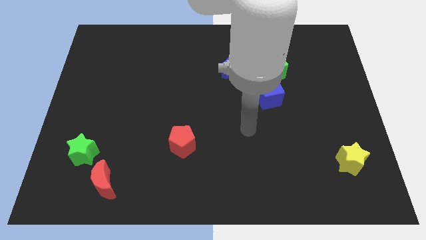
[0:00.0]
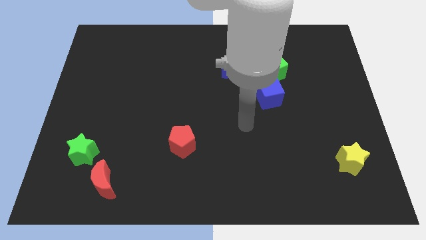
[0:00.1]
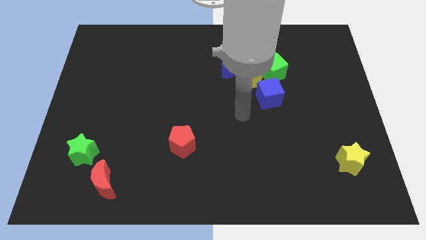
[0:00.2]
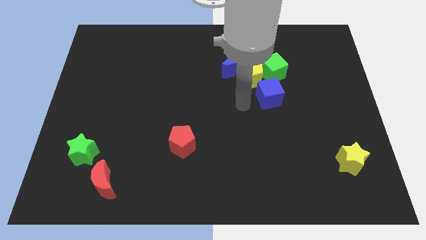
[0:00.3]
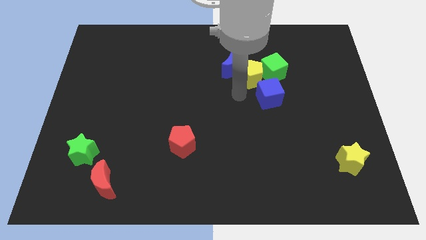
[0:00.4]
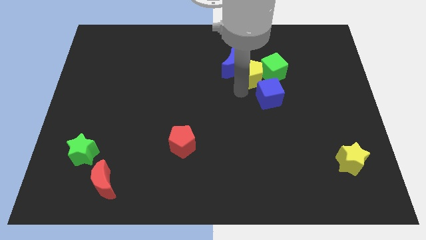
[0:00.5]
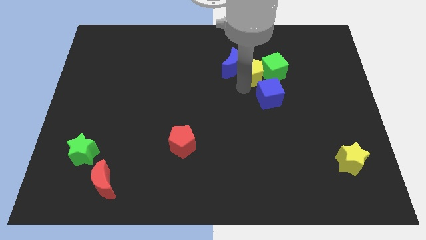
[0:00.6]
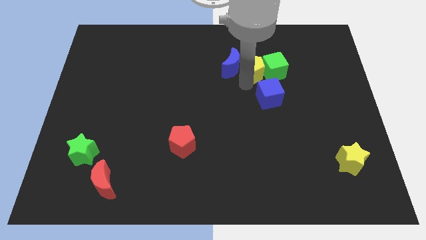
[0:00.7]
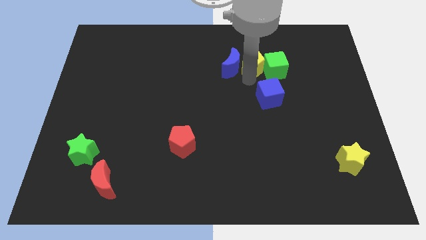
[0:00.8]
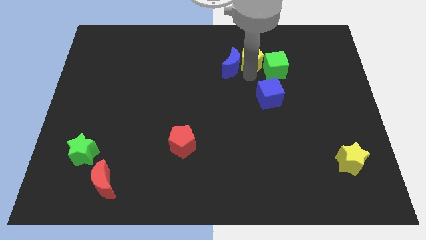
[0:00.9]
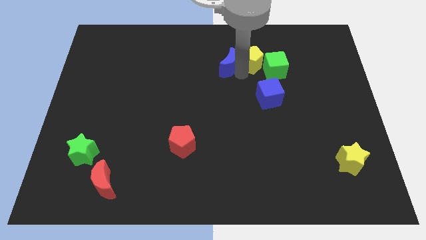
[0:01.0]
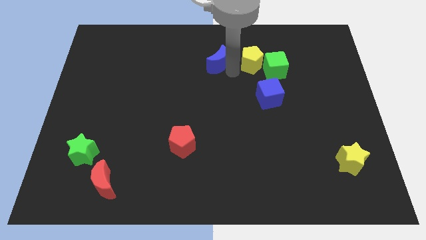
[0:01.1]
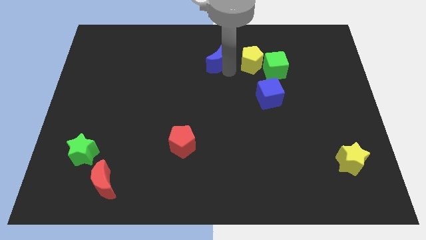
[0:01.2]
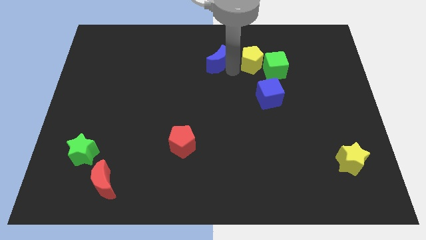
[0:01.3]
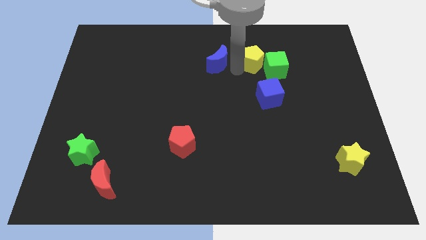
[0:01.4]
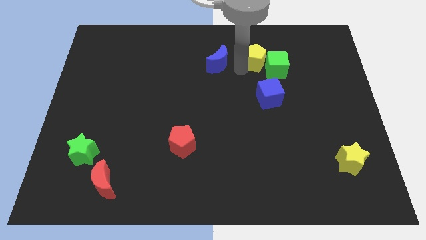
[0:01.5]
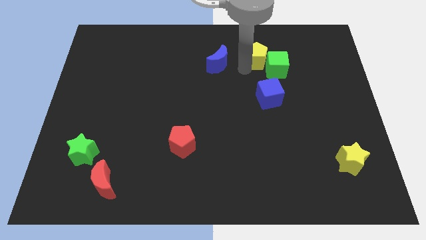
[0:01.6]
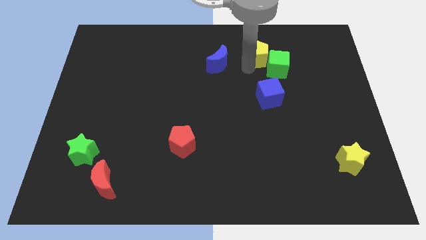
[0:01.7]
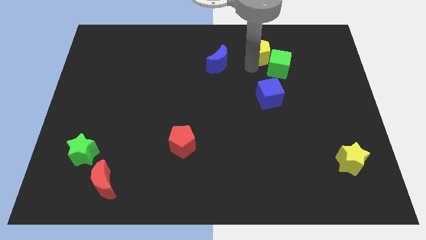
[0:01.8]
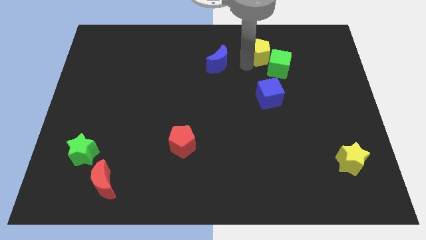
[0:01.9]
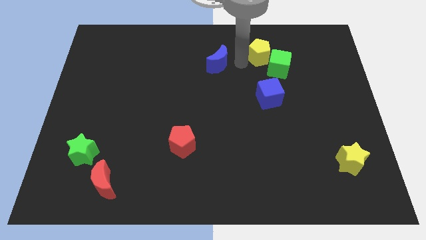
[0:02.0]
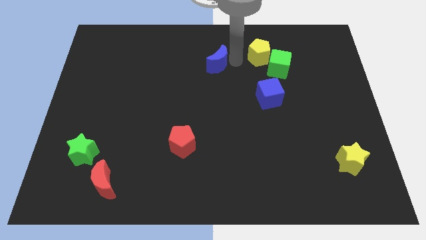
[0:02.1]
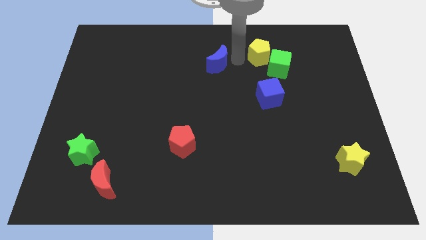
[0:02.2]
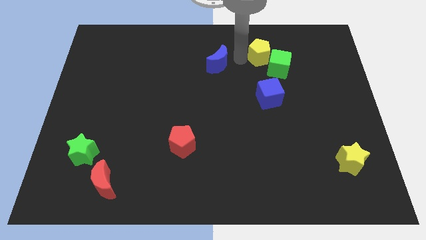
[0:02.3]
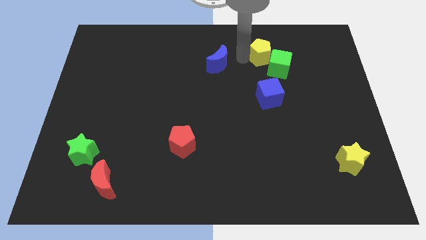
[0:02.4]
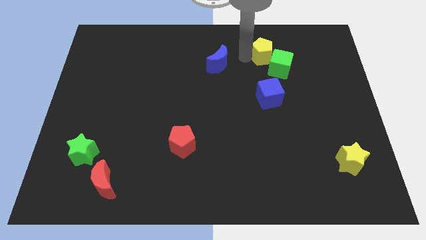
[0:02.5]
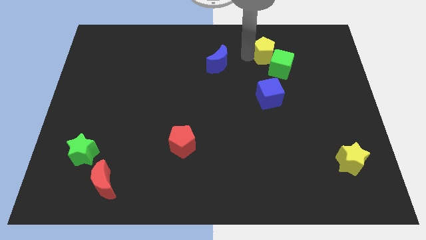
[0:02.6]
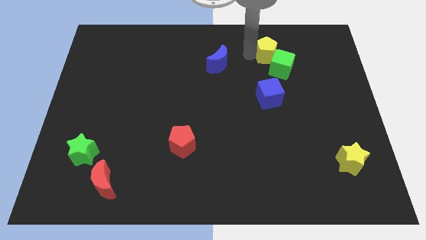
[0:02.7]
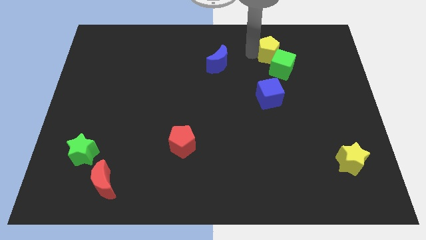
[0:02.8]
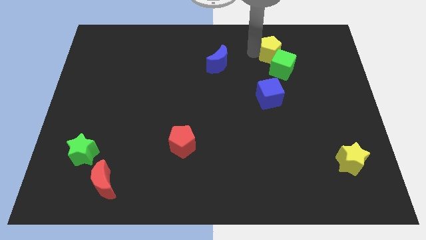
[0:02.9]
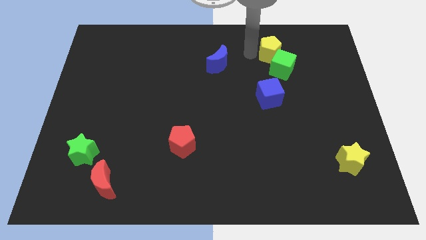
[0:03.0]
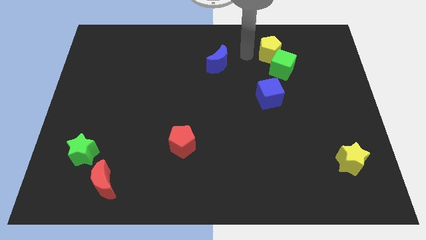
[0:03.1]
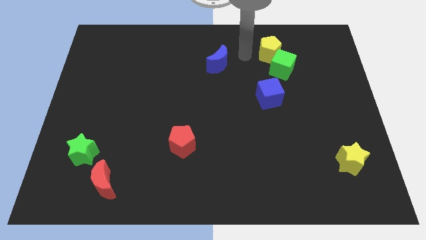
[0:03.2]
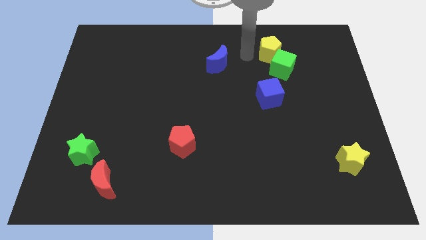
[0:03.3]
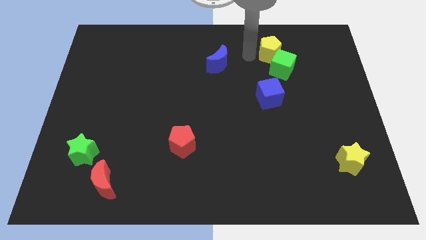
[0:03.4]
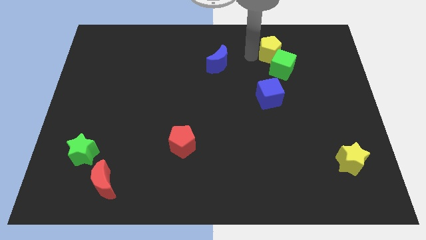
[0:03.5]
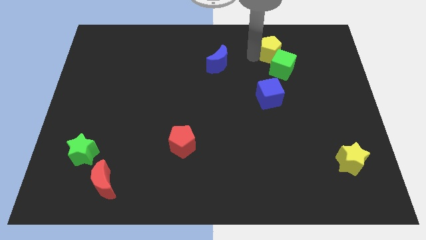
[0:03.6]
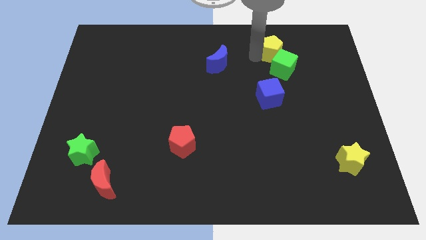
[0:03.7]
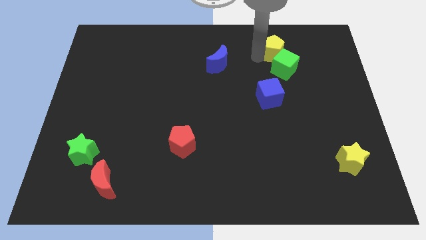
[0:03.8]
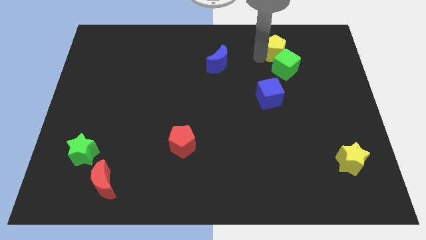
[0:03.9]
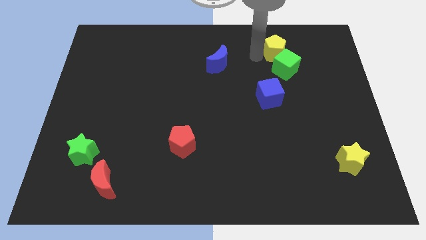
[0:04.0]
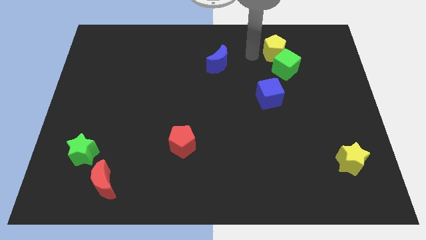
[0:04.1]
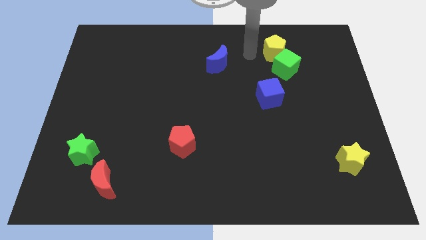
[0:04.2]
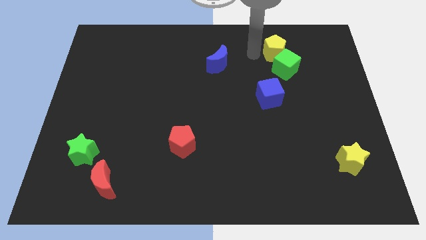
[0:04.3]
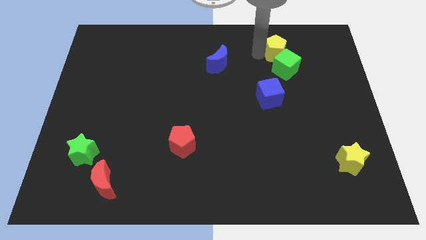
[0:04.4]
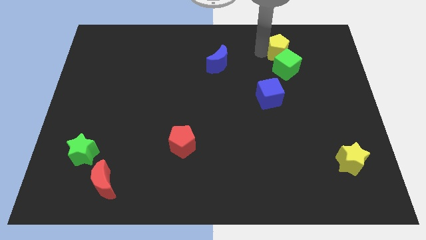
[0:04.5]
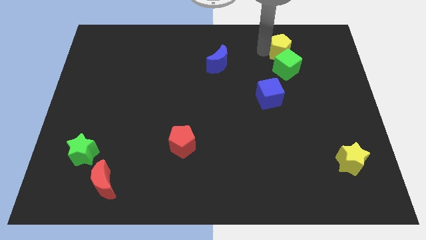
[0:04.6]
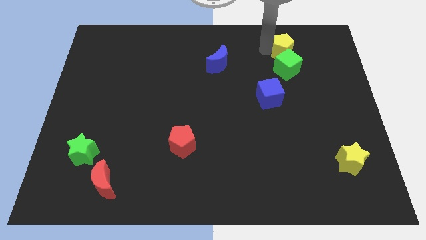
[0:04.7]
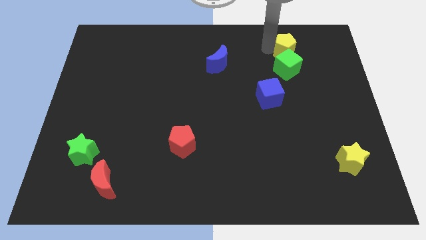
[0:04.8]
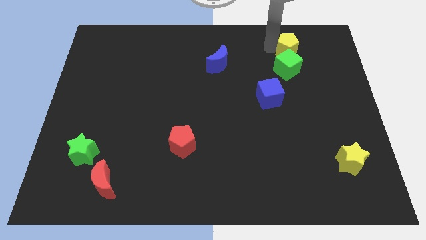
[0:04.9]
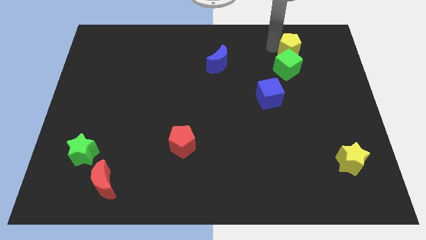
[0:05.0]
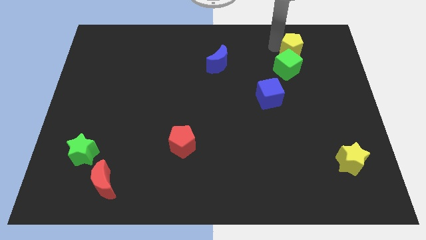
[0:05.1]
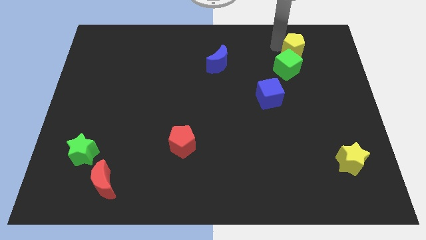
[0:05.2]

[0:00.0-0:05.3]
push the yellow pentagon right slightly

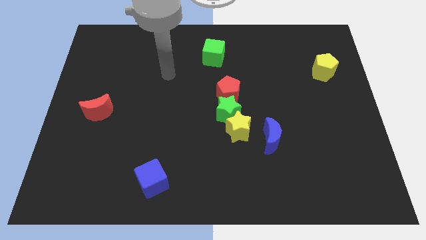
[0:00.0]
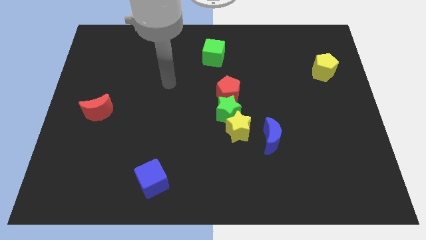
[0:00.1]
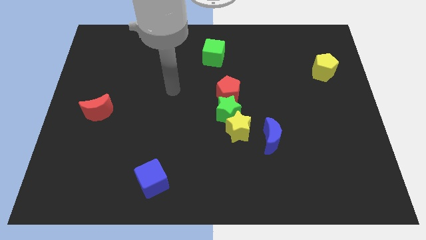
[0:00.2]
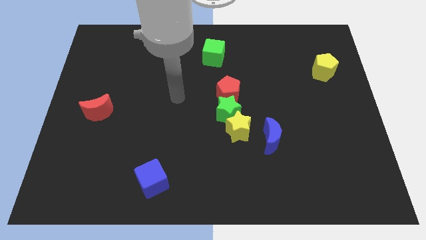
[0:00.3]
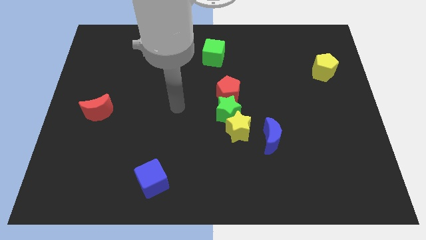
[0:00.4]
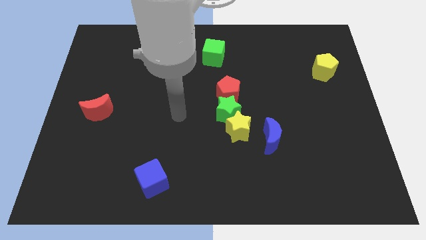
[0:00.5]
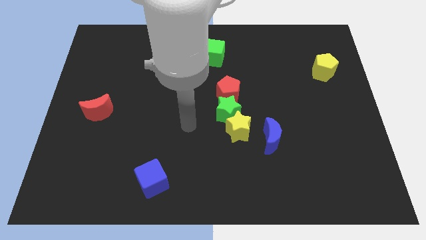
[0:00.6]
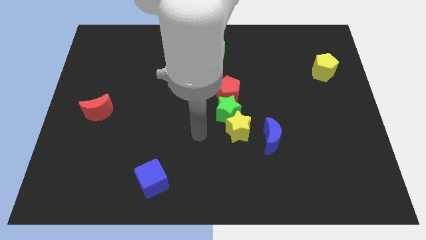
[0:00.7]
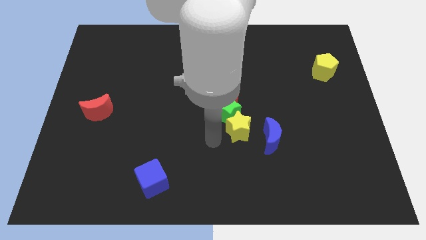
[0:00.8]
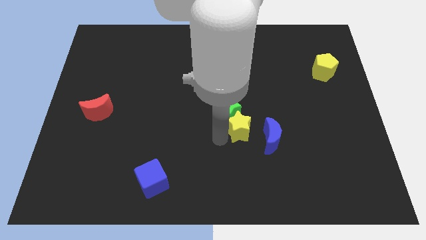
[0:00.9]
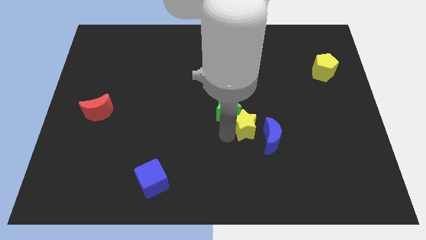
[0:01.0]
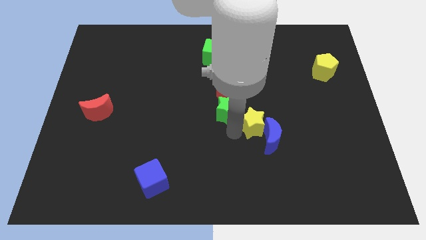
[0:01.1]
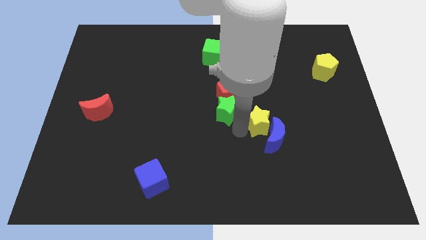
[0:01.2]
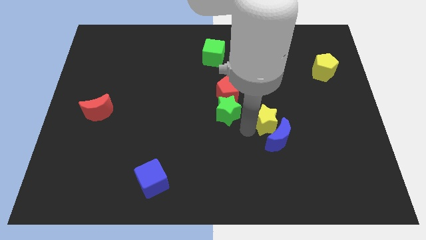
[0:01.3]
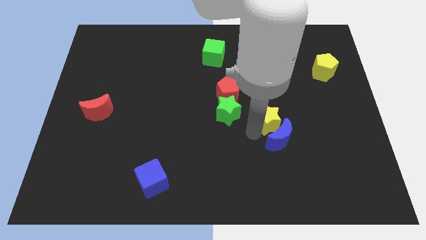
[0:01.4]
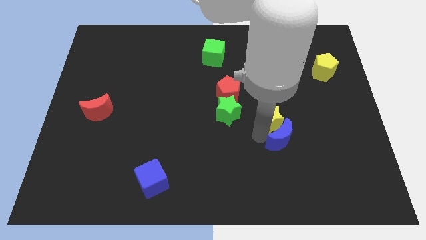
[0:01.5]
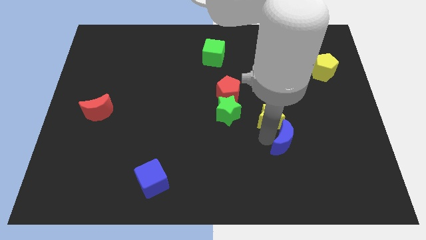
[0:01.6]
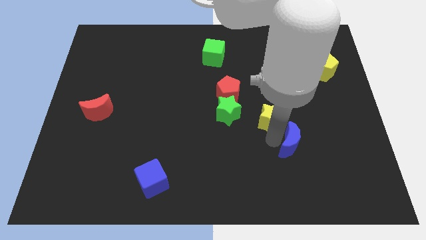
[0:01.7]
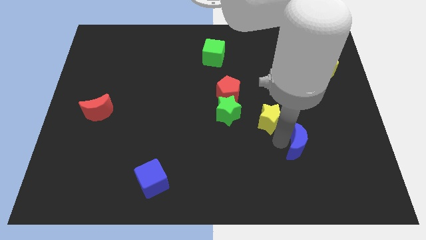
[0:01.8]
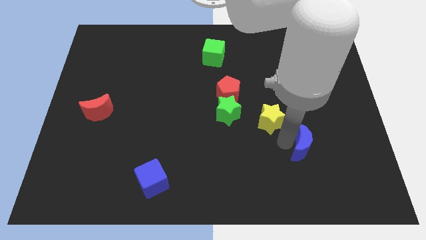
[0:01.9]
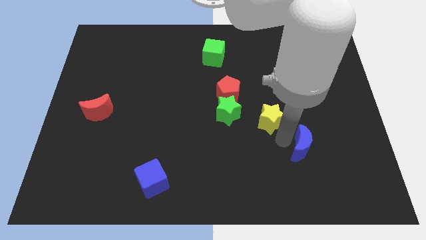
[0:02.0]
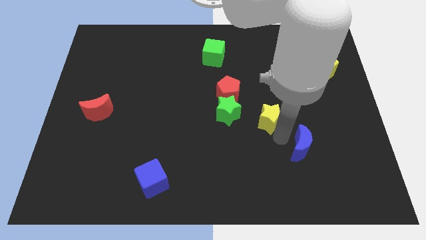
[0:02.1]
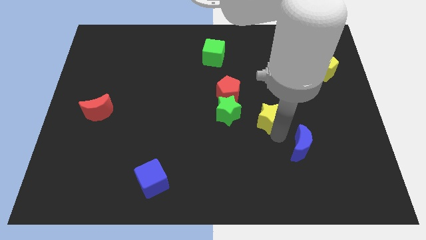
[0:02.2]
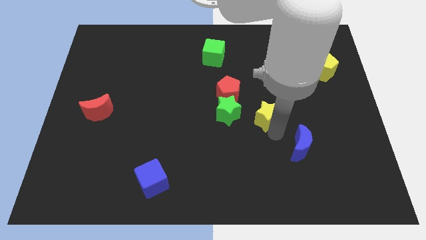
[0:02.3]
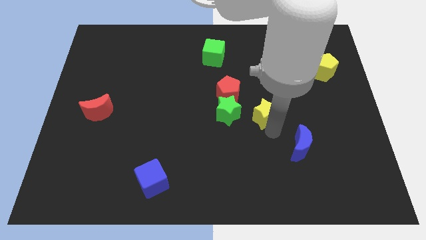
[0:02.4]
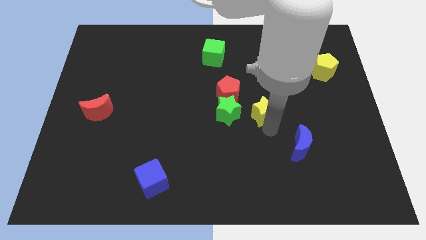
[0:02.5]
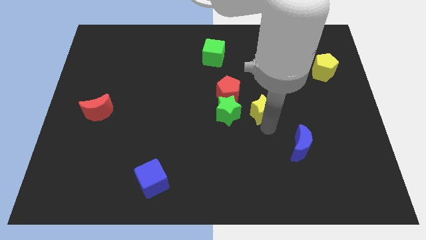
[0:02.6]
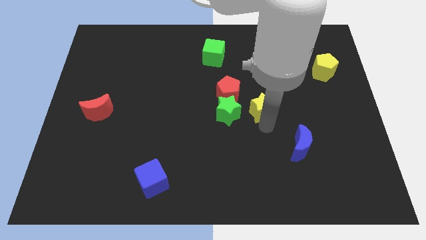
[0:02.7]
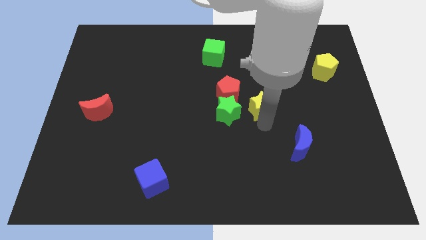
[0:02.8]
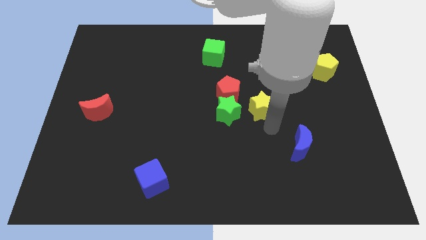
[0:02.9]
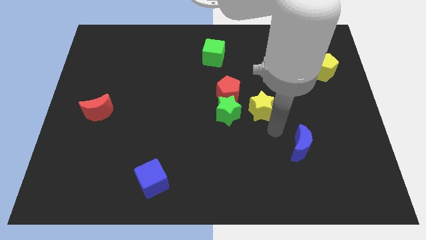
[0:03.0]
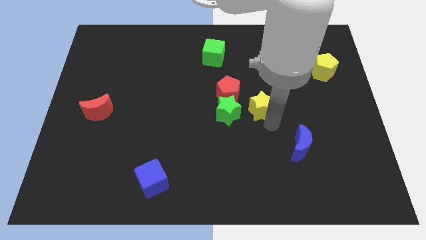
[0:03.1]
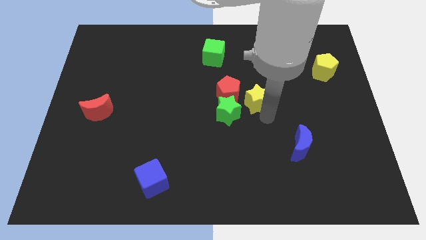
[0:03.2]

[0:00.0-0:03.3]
slightly move the yellow star upwards
